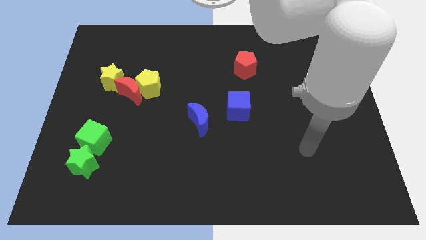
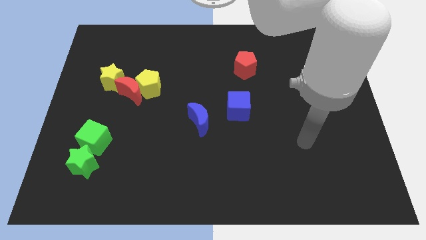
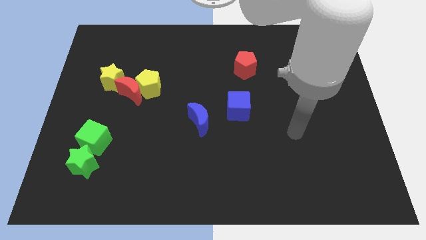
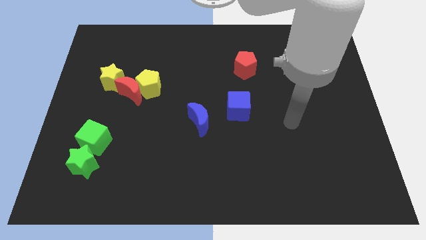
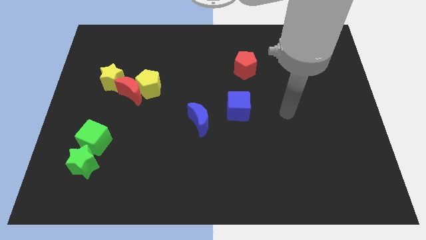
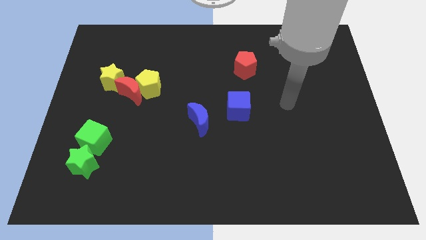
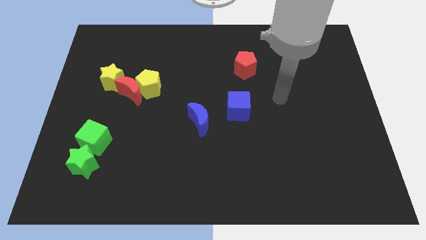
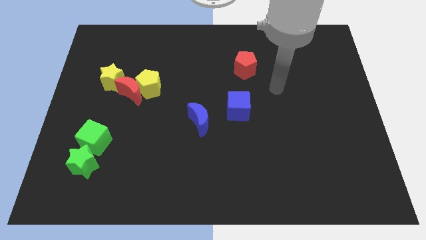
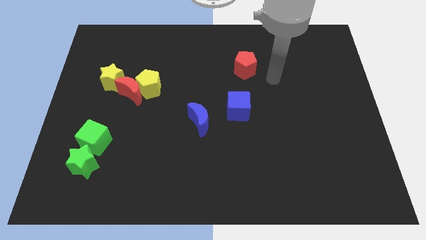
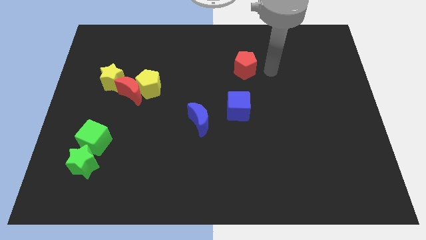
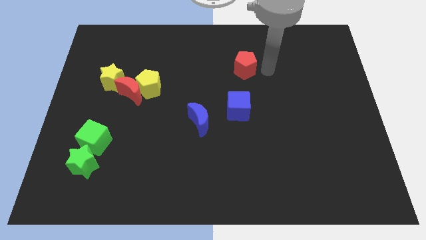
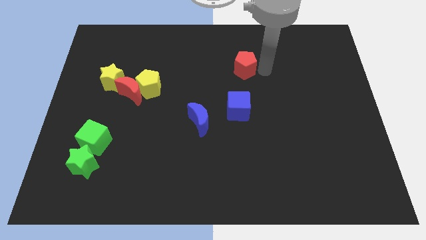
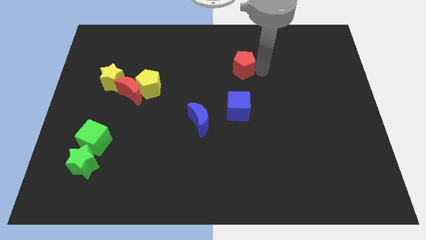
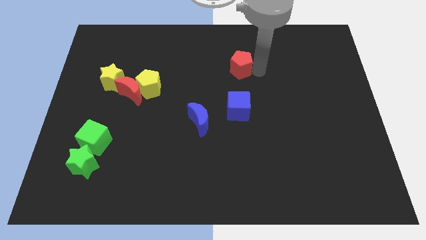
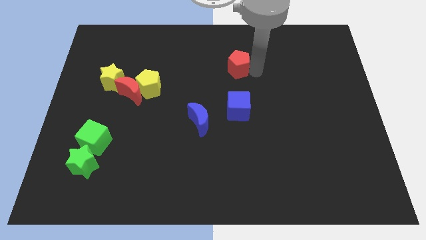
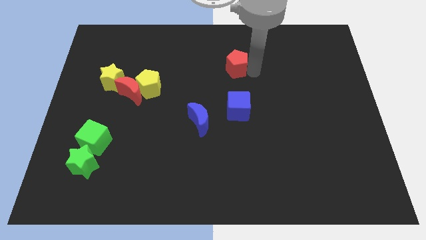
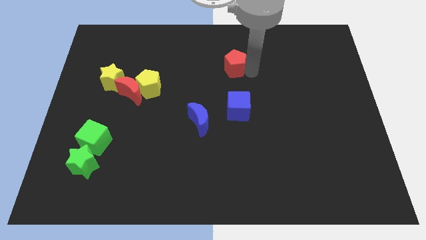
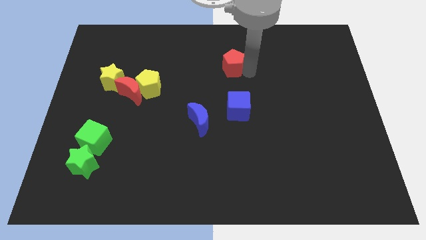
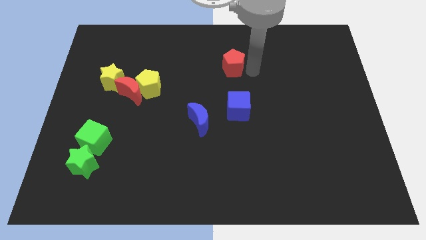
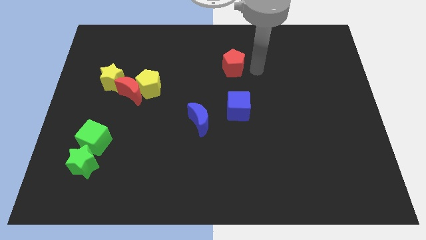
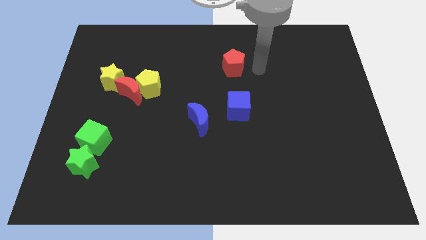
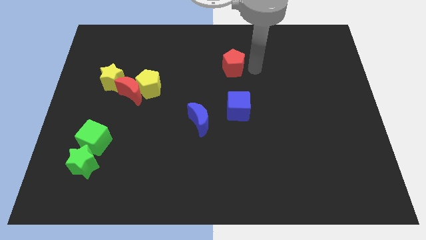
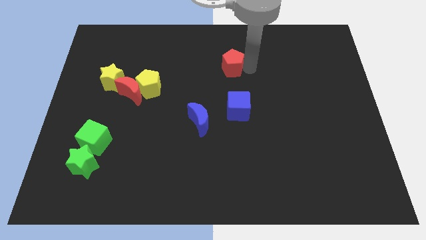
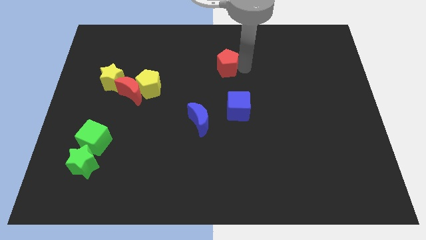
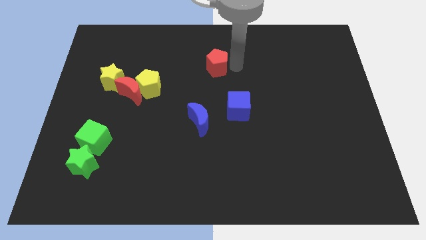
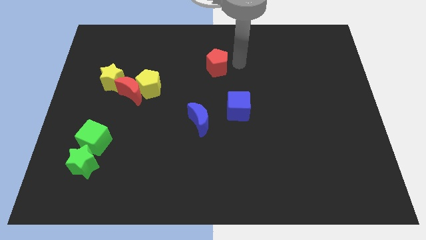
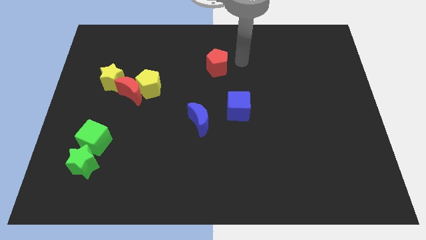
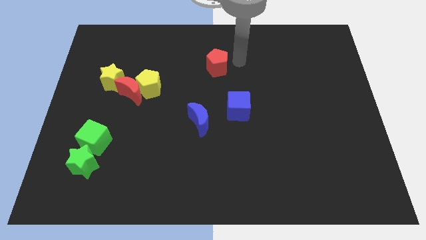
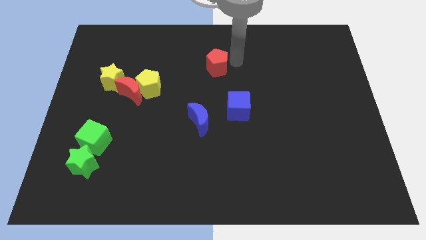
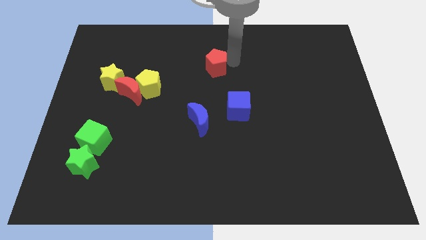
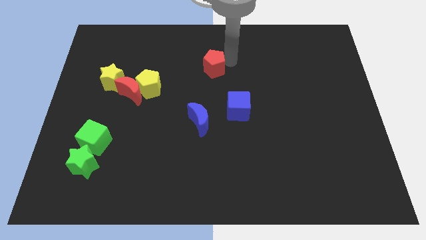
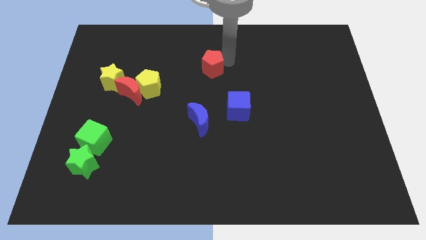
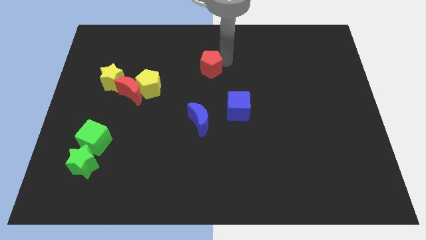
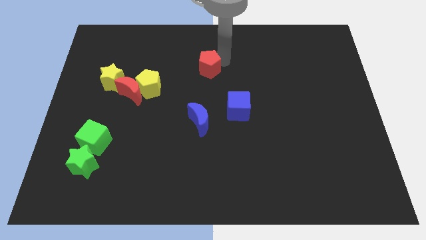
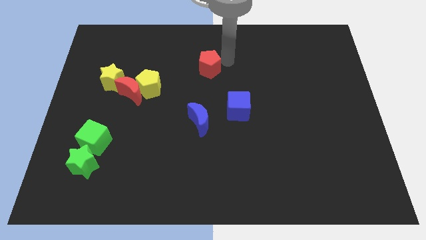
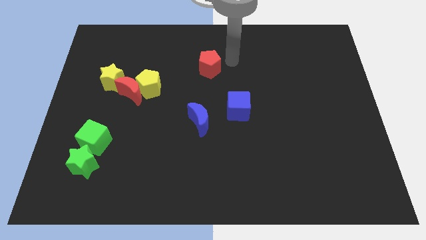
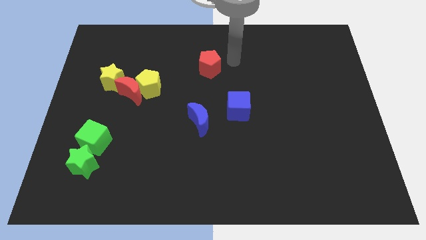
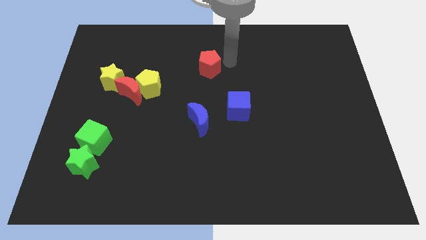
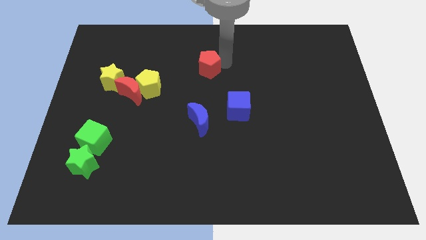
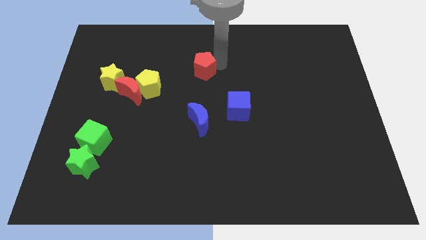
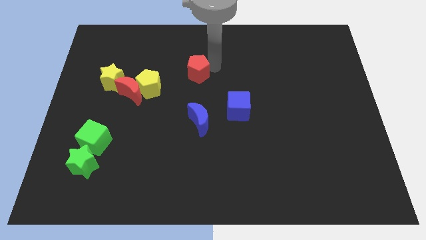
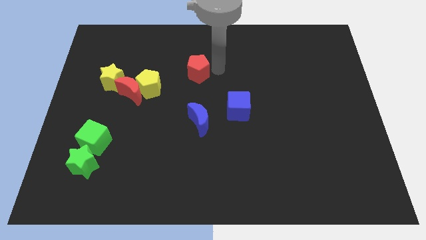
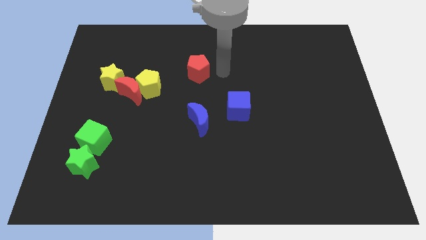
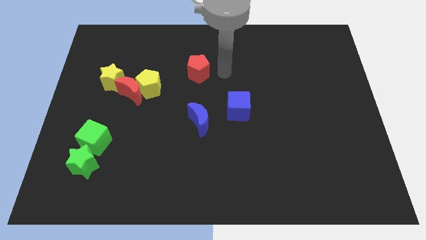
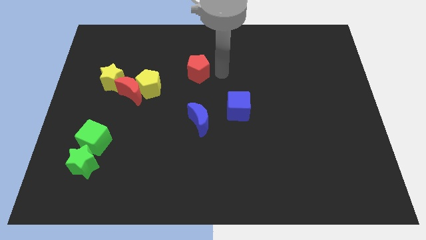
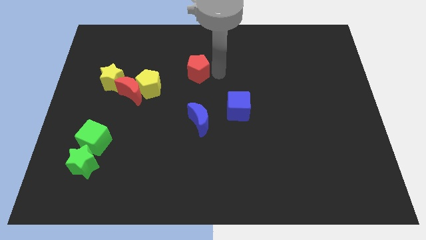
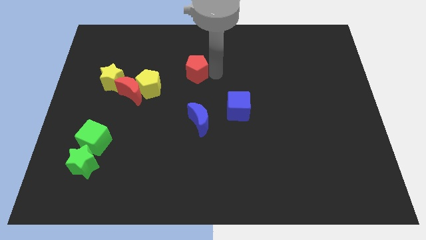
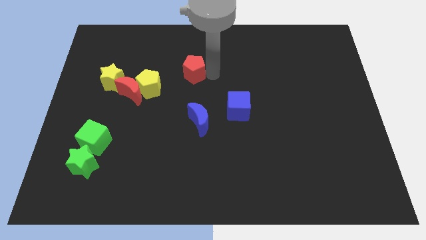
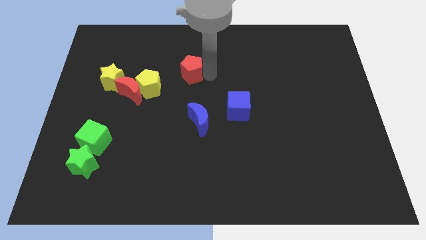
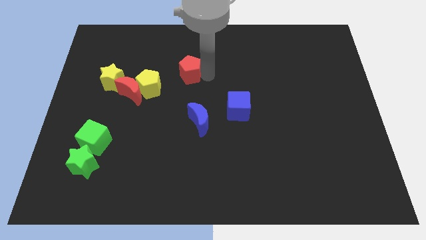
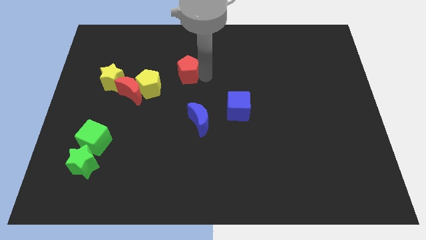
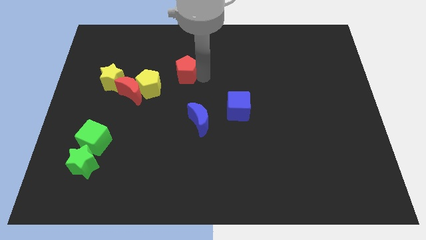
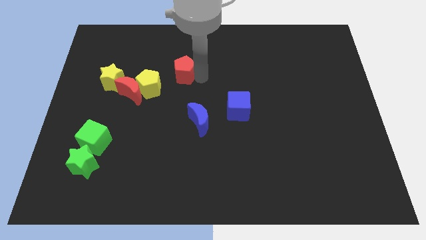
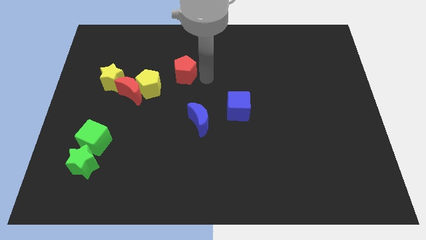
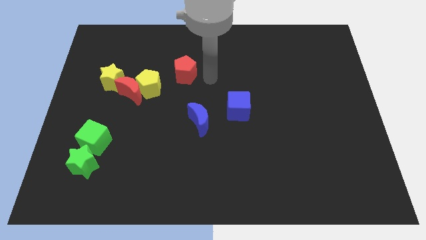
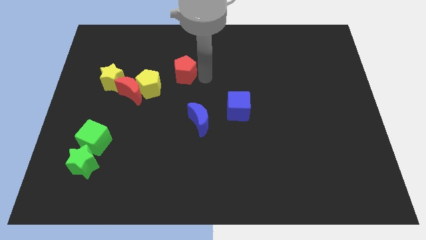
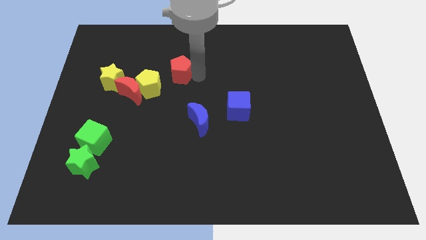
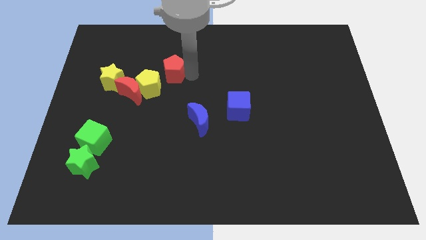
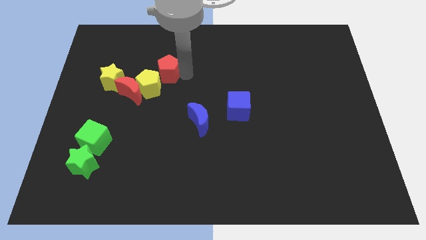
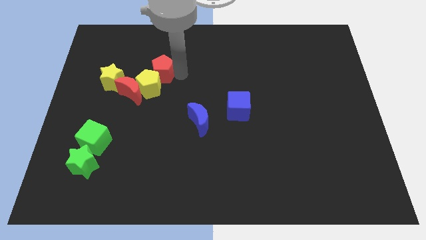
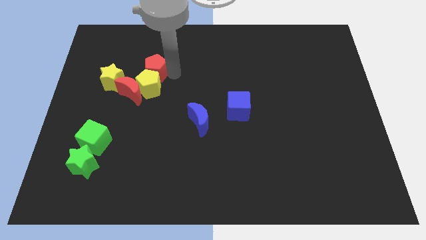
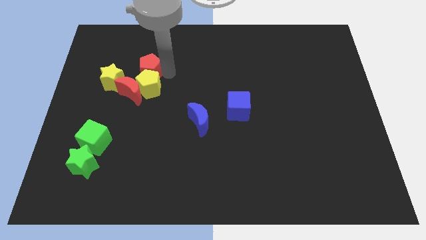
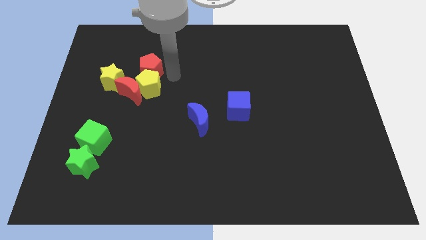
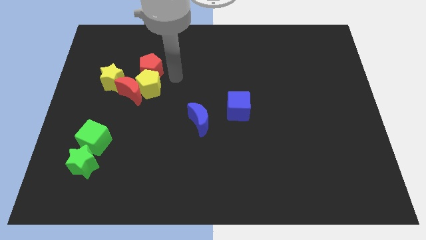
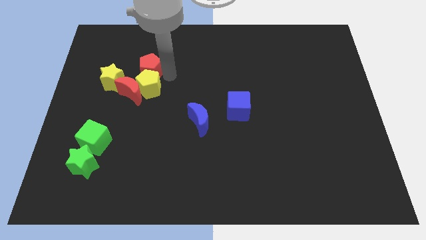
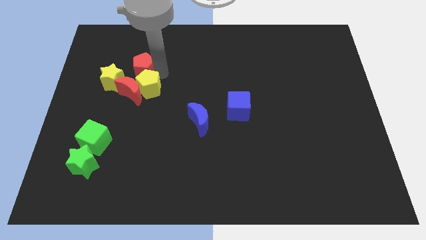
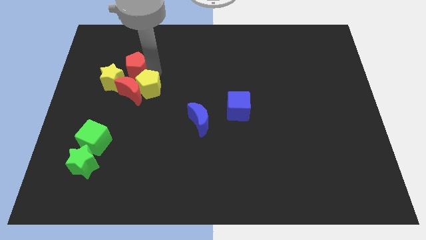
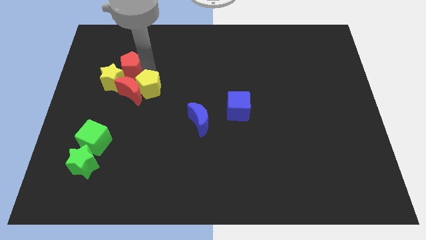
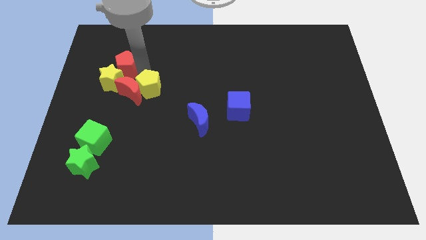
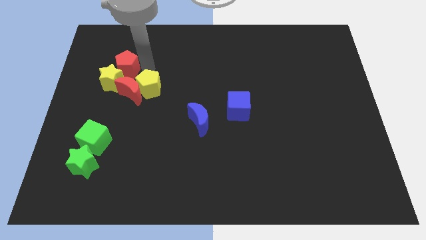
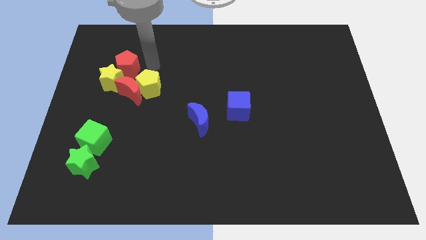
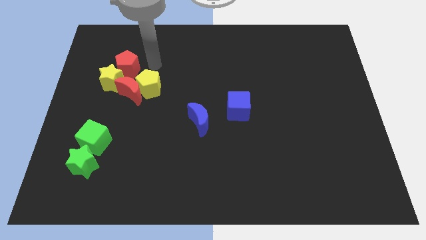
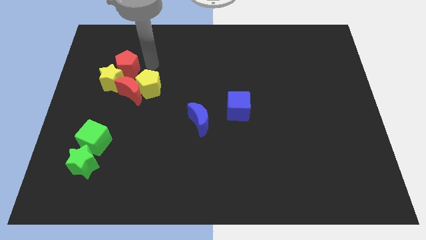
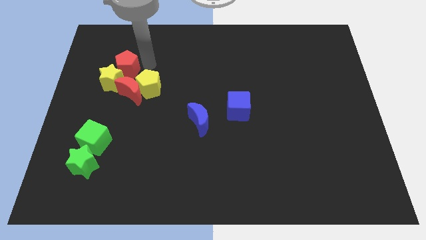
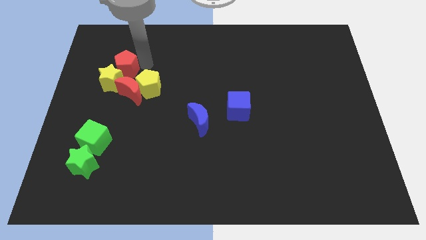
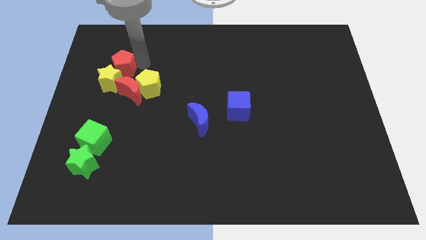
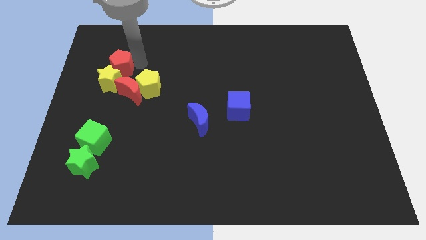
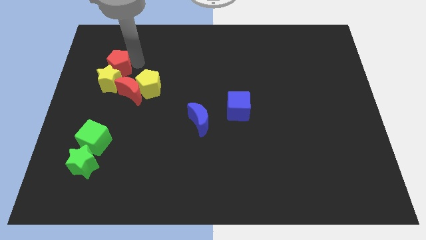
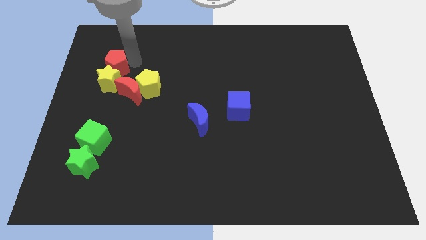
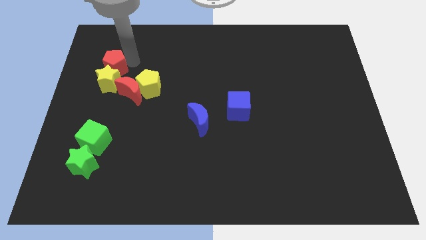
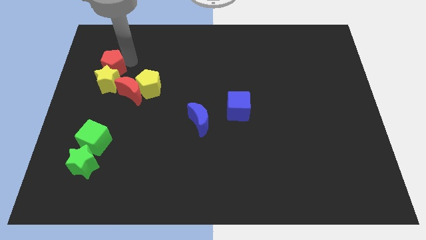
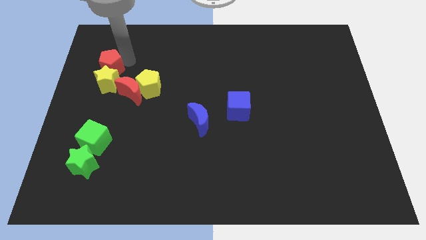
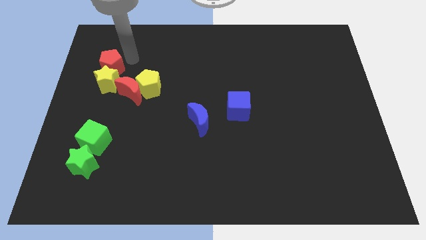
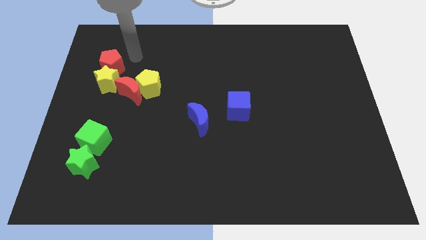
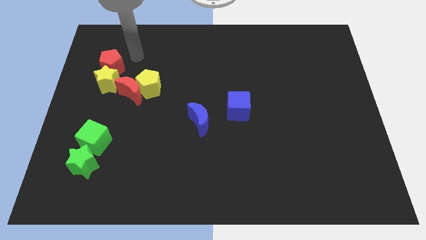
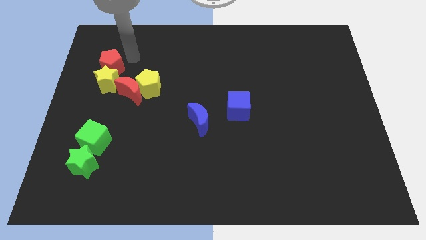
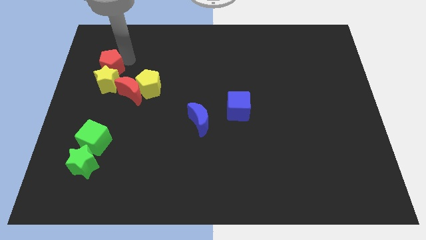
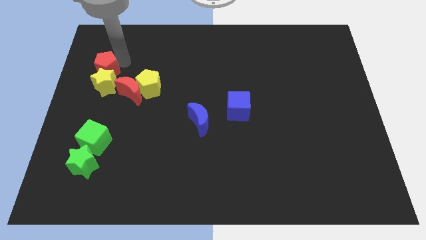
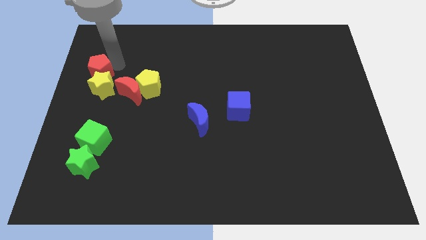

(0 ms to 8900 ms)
slide the red pentagon to the left side
